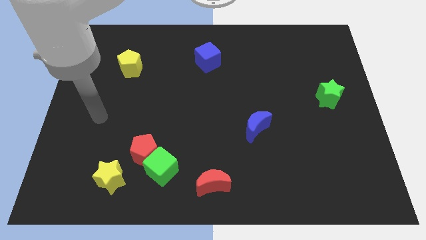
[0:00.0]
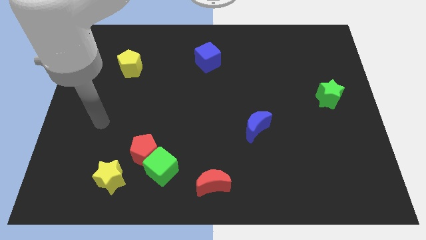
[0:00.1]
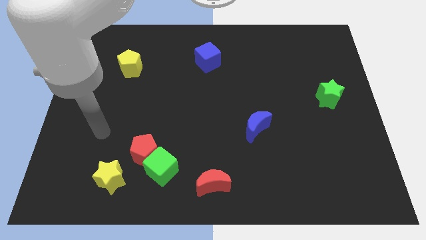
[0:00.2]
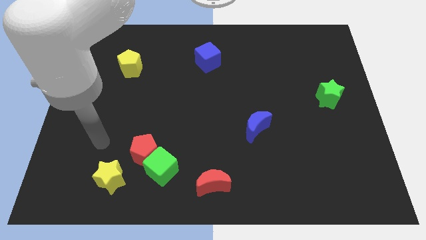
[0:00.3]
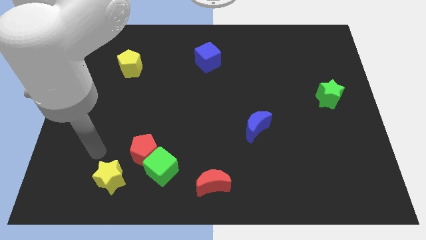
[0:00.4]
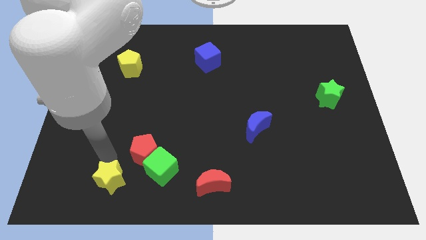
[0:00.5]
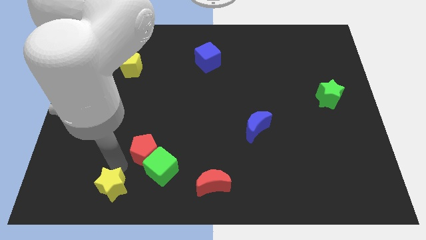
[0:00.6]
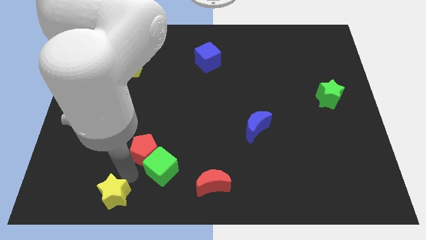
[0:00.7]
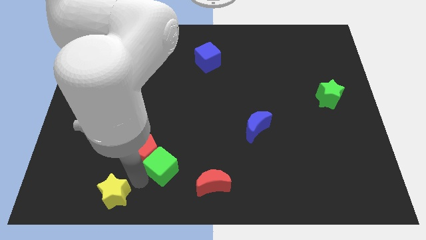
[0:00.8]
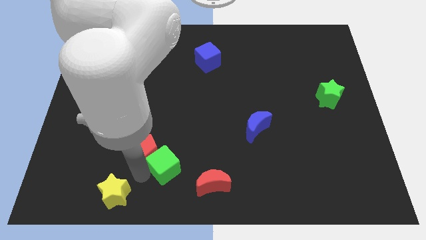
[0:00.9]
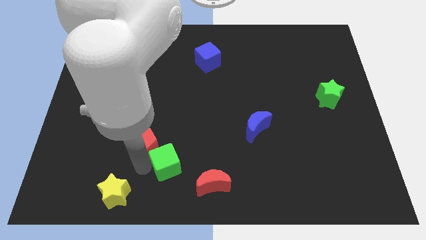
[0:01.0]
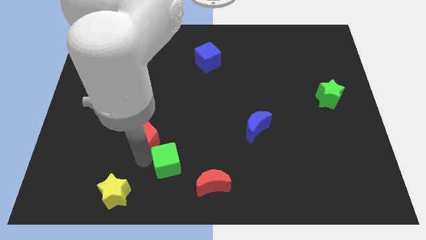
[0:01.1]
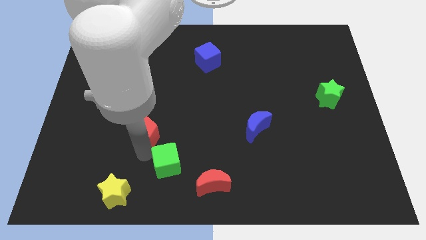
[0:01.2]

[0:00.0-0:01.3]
pull the red pentagon apart from the green cube and yellow star

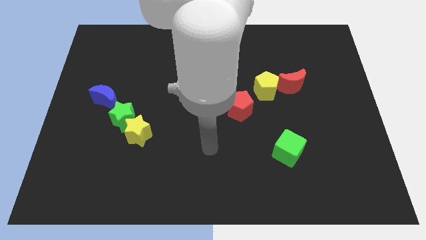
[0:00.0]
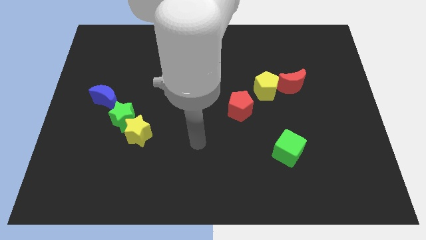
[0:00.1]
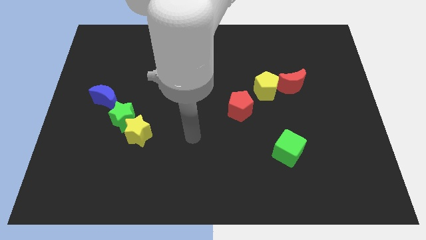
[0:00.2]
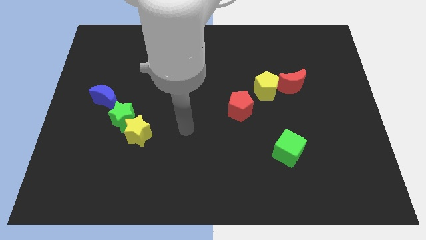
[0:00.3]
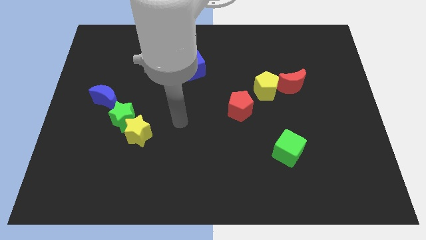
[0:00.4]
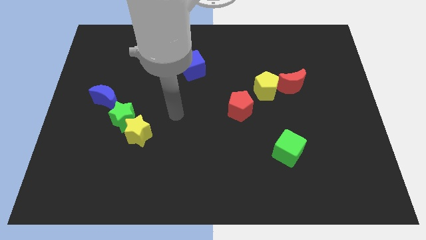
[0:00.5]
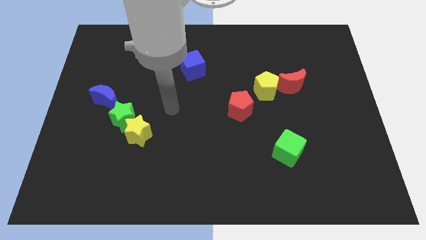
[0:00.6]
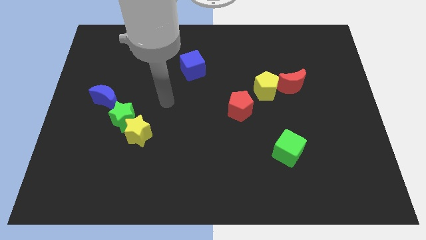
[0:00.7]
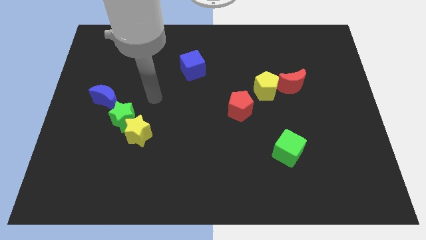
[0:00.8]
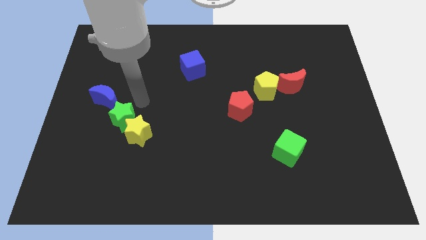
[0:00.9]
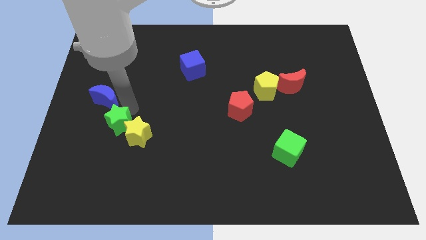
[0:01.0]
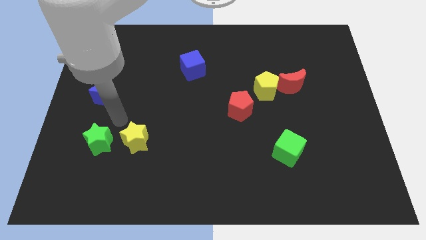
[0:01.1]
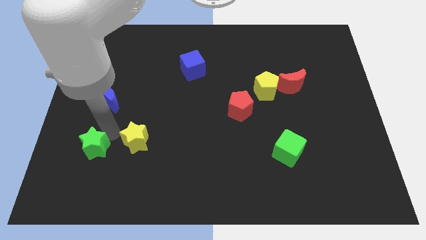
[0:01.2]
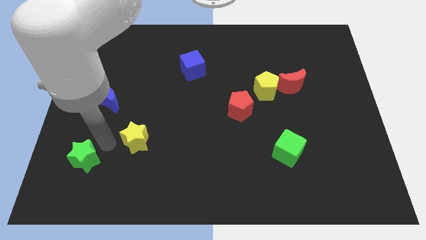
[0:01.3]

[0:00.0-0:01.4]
pull the yellow star apart from the green star

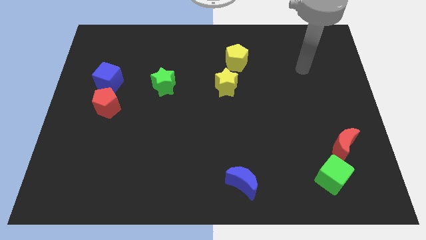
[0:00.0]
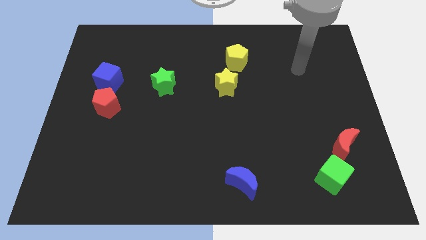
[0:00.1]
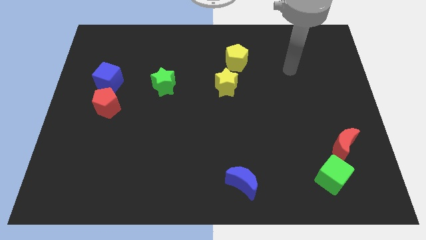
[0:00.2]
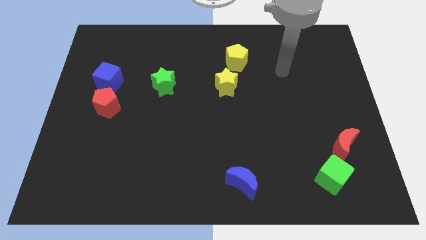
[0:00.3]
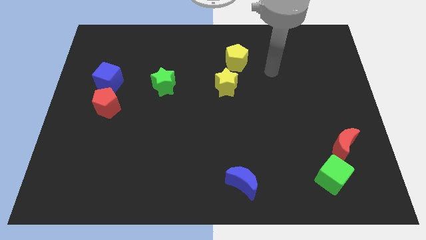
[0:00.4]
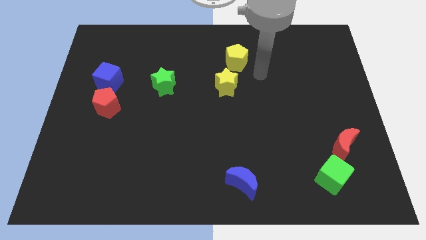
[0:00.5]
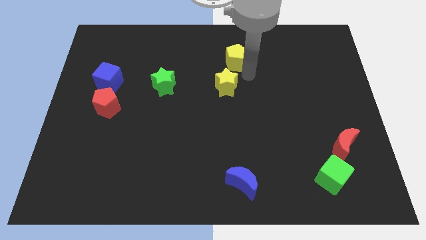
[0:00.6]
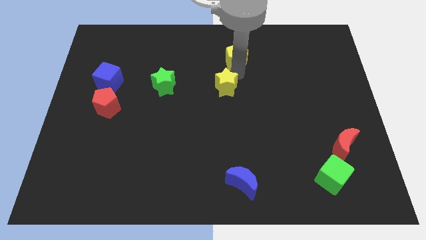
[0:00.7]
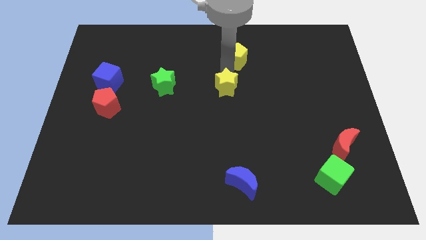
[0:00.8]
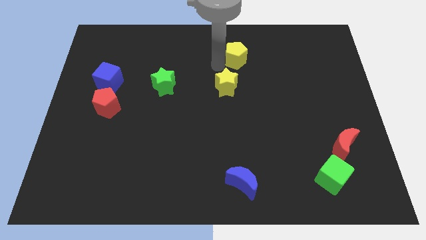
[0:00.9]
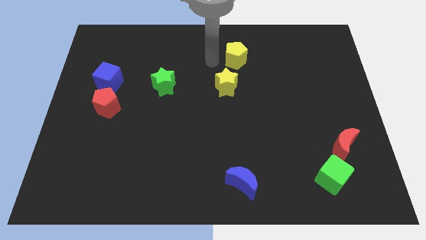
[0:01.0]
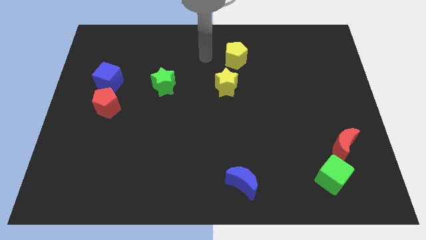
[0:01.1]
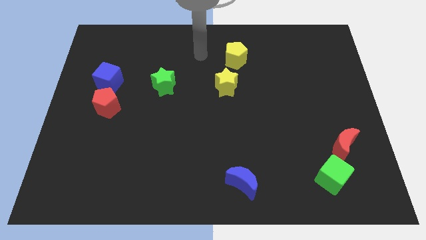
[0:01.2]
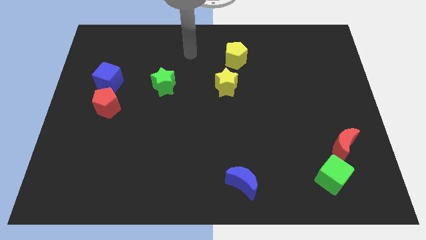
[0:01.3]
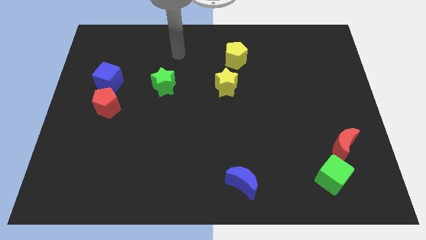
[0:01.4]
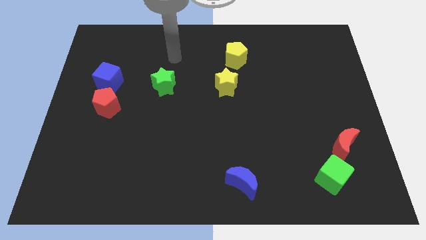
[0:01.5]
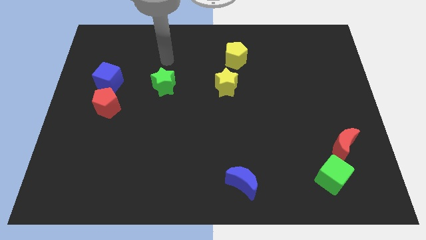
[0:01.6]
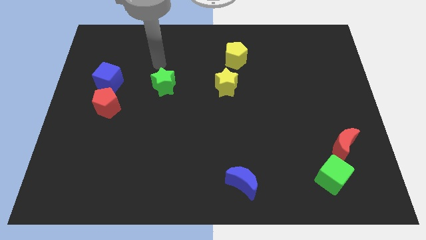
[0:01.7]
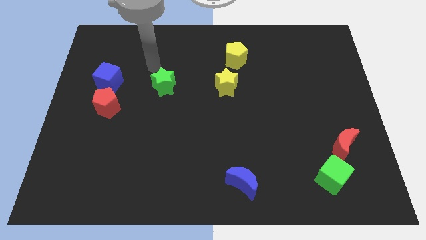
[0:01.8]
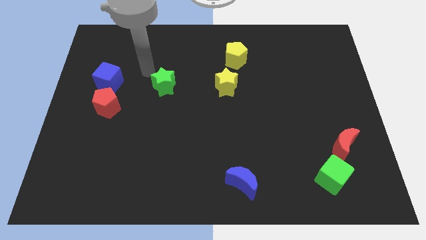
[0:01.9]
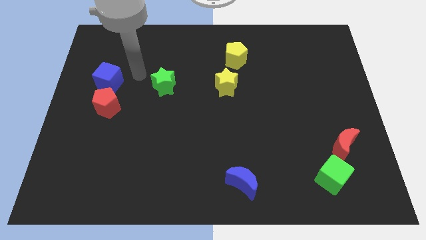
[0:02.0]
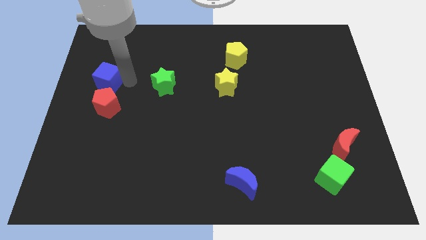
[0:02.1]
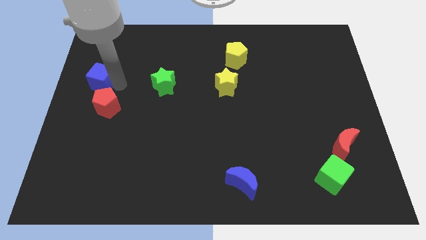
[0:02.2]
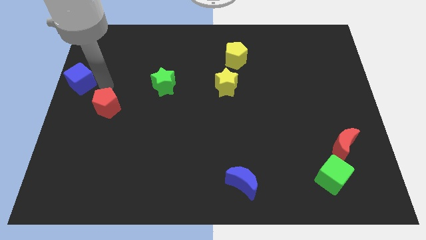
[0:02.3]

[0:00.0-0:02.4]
move the red pentagon away from the blue cube

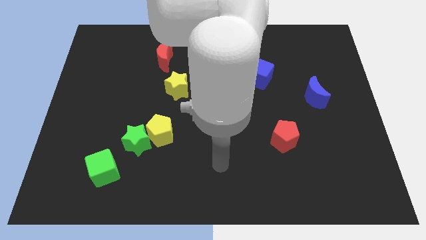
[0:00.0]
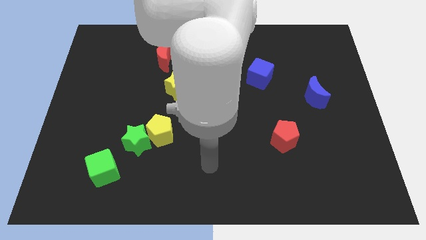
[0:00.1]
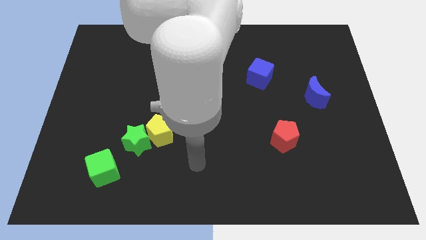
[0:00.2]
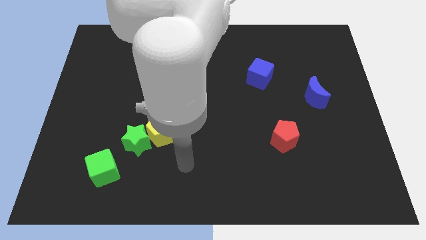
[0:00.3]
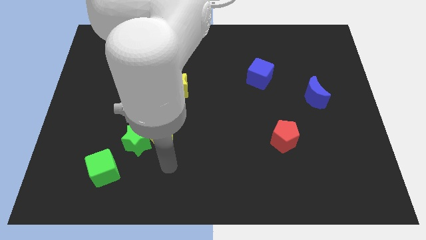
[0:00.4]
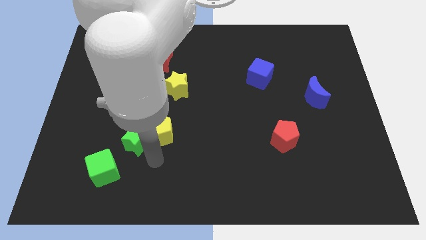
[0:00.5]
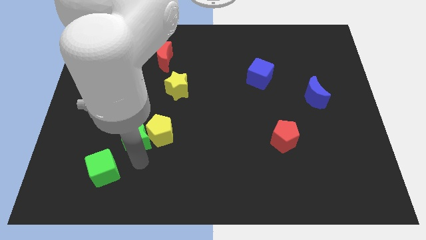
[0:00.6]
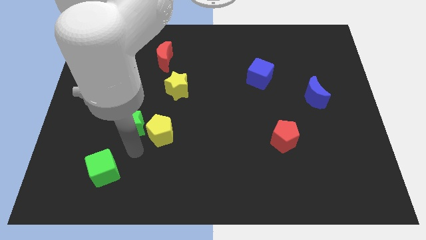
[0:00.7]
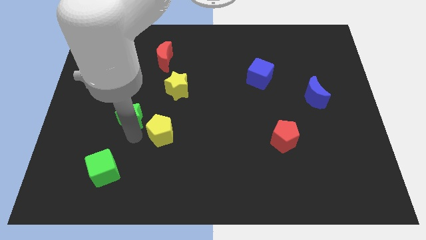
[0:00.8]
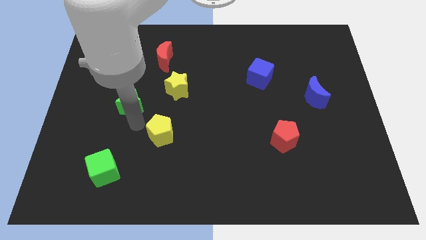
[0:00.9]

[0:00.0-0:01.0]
separate the yellow pentagon from the green star

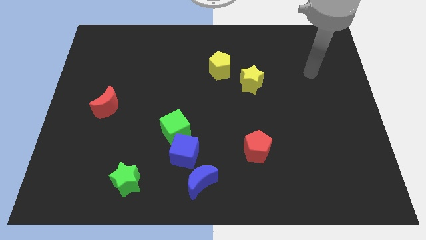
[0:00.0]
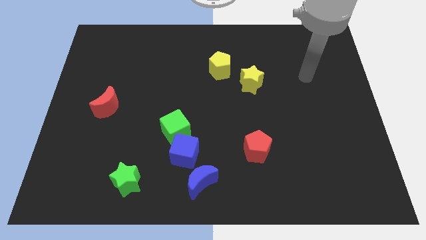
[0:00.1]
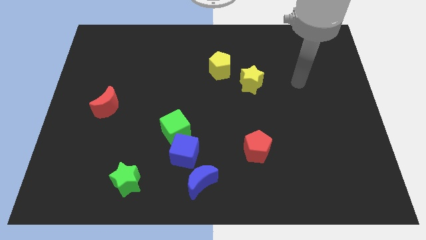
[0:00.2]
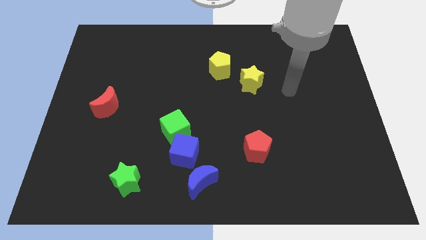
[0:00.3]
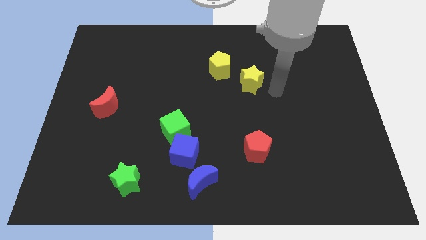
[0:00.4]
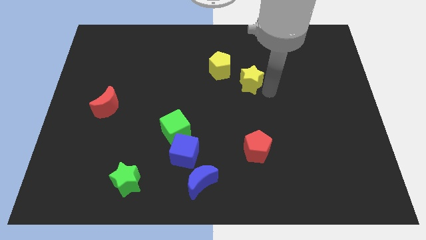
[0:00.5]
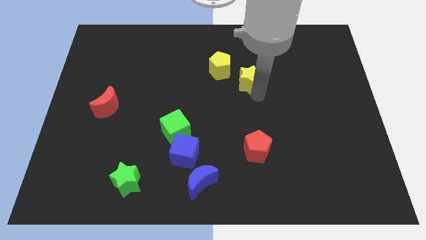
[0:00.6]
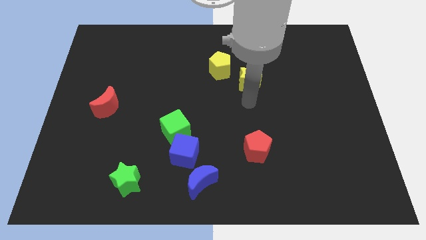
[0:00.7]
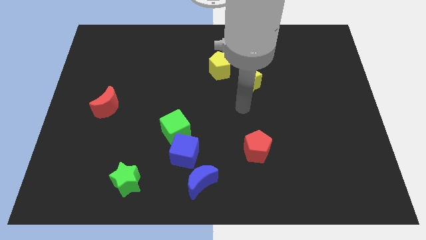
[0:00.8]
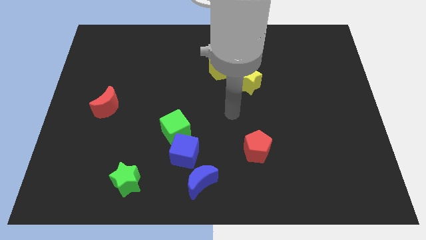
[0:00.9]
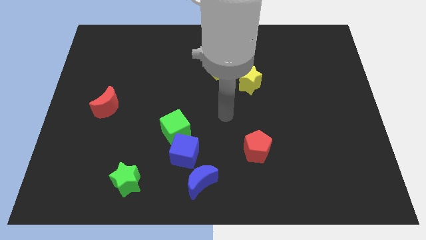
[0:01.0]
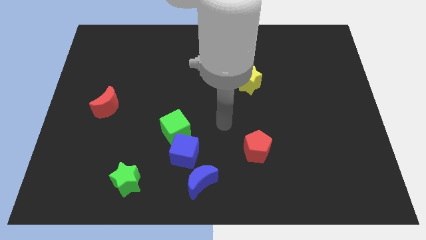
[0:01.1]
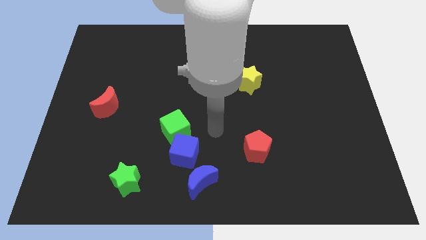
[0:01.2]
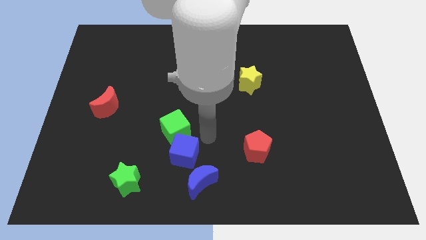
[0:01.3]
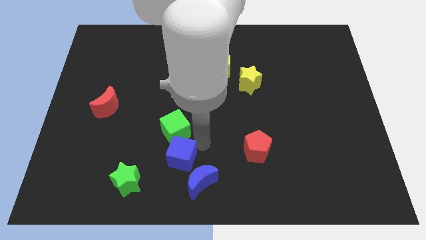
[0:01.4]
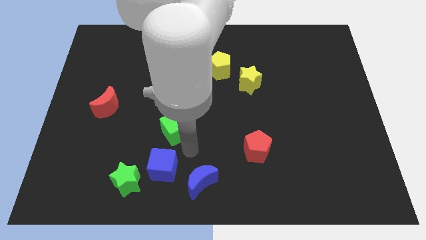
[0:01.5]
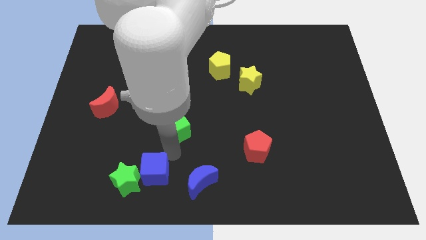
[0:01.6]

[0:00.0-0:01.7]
move the green cube away from the blue cube

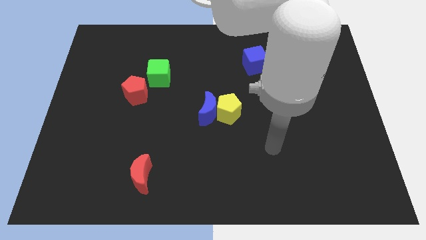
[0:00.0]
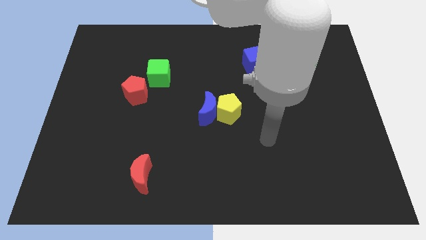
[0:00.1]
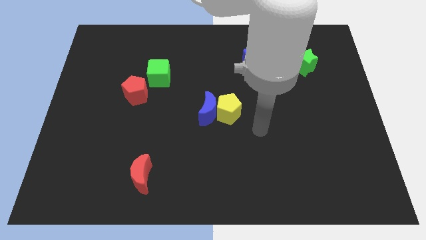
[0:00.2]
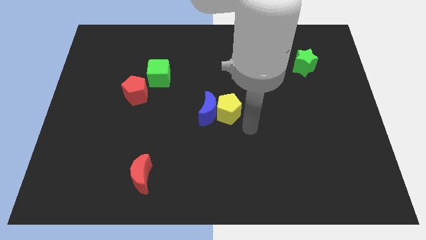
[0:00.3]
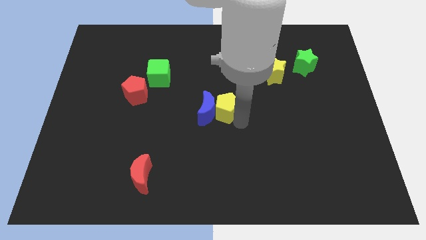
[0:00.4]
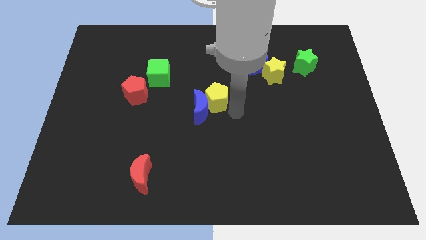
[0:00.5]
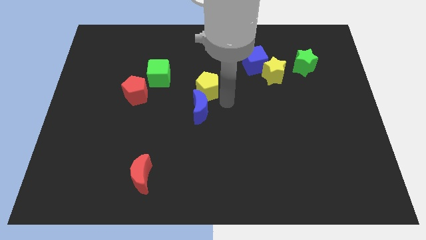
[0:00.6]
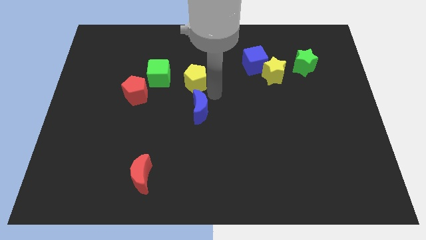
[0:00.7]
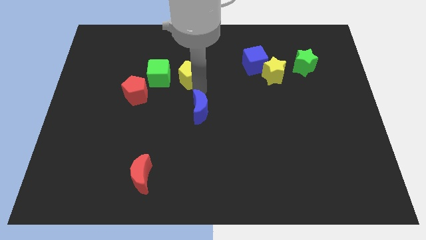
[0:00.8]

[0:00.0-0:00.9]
move the blue moon away from the yellow pentagon

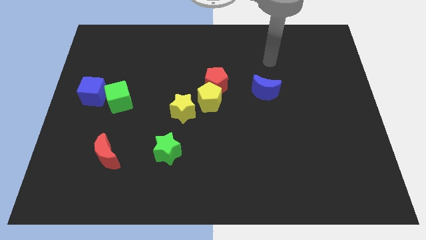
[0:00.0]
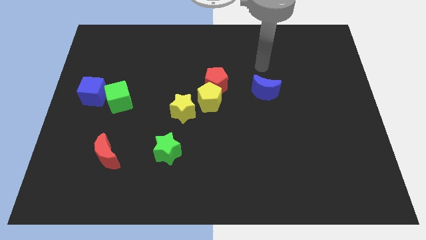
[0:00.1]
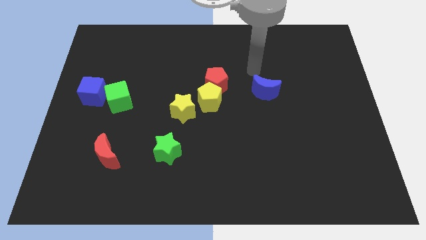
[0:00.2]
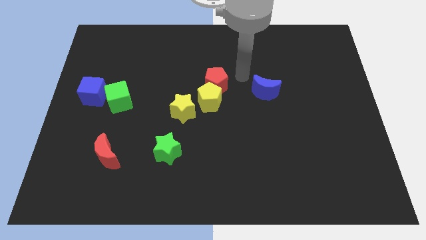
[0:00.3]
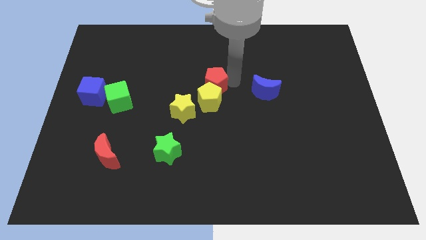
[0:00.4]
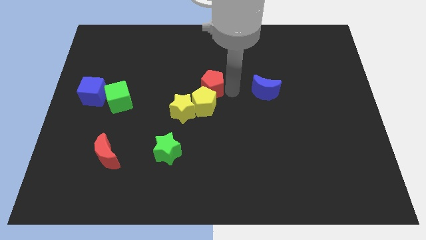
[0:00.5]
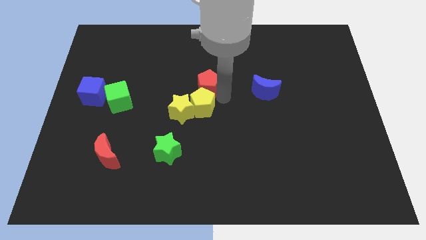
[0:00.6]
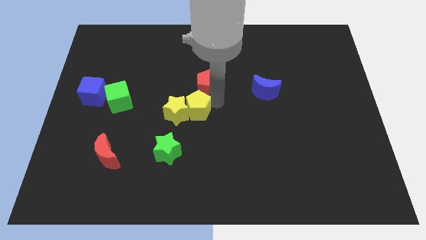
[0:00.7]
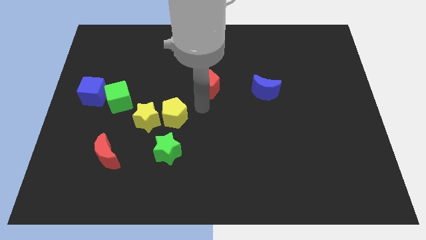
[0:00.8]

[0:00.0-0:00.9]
separate the red pentagon from the yellow pentagon
